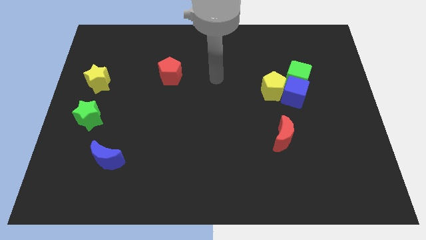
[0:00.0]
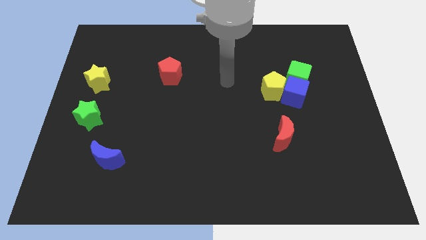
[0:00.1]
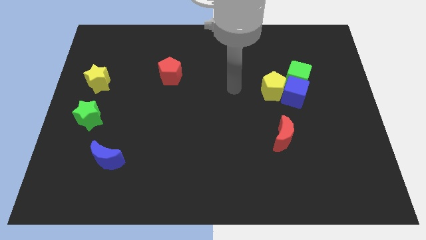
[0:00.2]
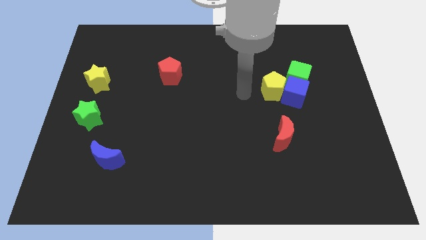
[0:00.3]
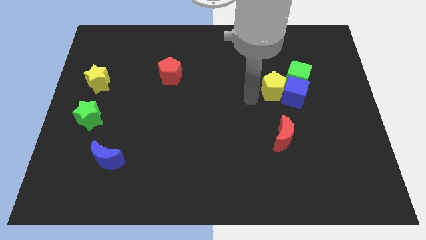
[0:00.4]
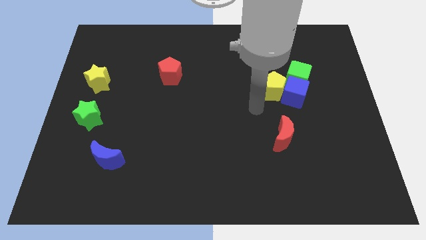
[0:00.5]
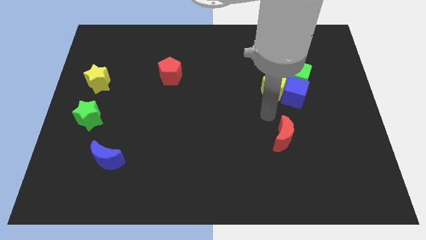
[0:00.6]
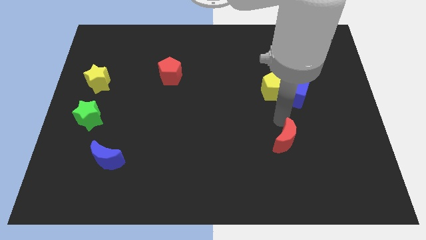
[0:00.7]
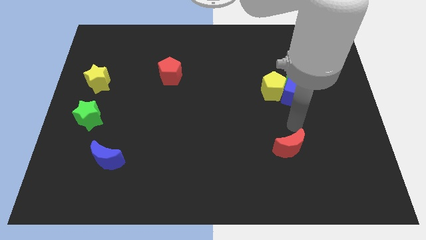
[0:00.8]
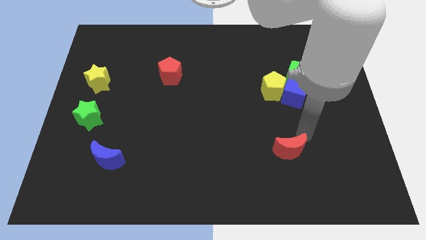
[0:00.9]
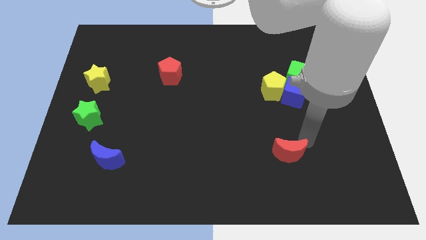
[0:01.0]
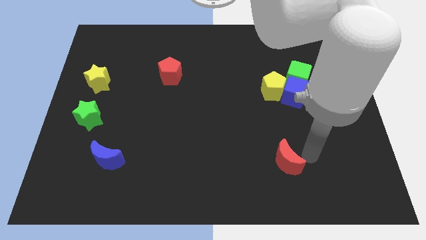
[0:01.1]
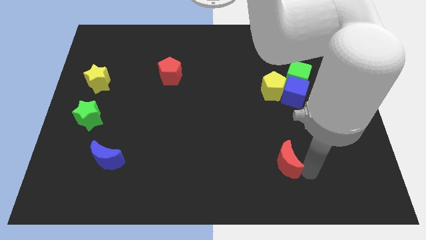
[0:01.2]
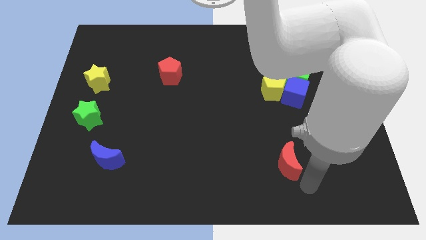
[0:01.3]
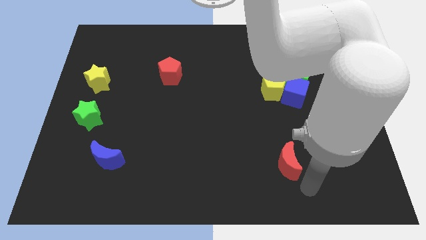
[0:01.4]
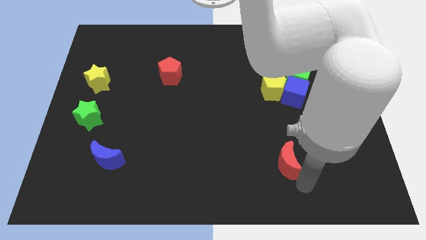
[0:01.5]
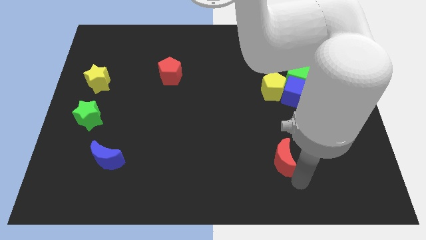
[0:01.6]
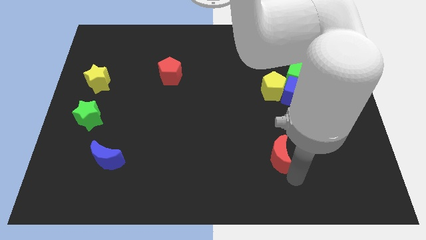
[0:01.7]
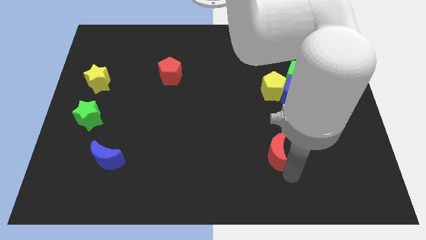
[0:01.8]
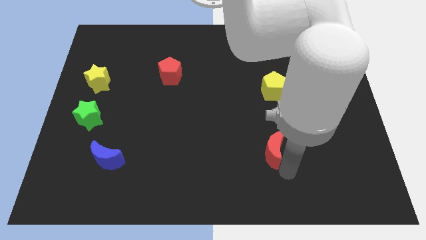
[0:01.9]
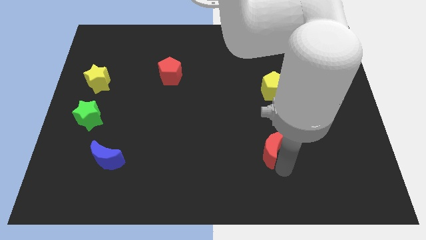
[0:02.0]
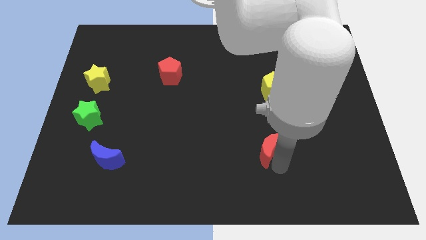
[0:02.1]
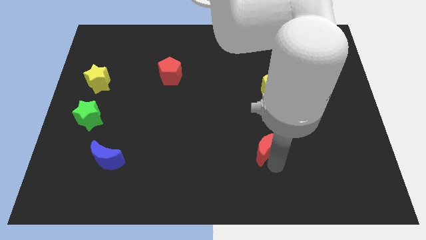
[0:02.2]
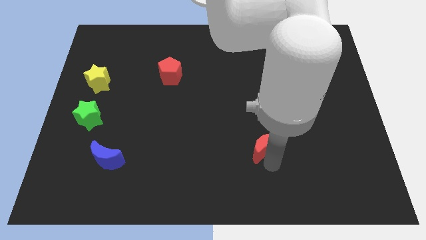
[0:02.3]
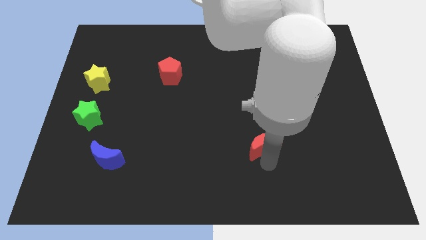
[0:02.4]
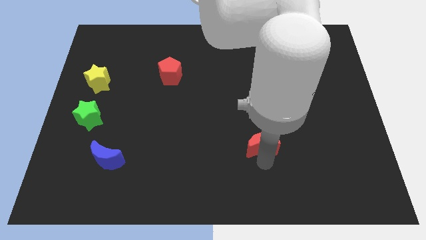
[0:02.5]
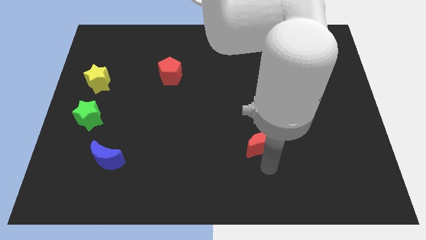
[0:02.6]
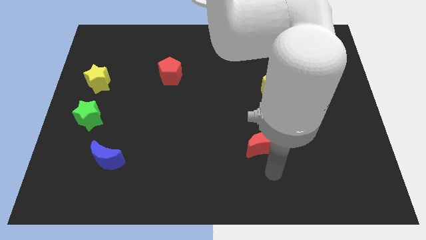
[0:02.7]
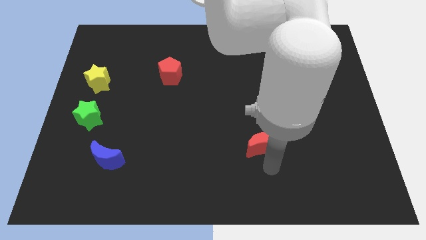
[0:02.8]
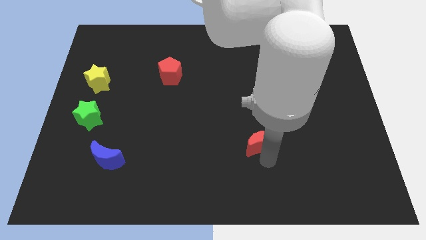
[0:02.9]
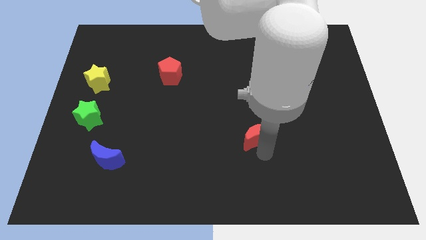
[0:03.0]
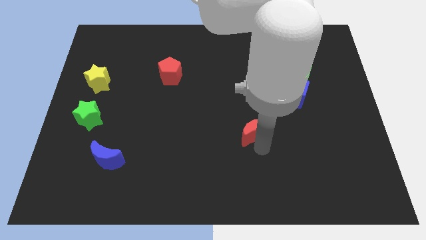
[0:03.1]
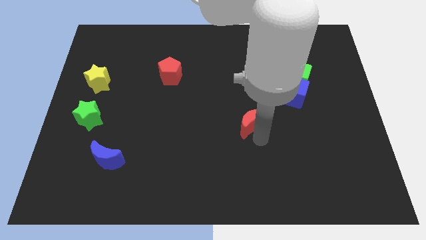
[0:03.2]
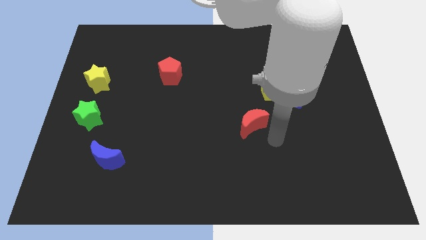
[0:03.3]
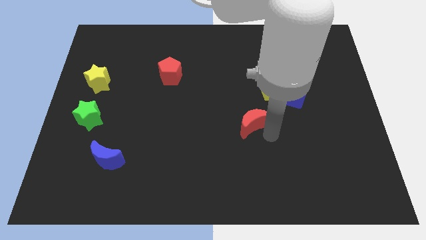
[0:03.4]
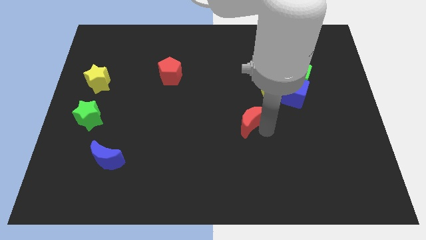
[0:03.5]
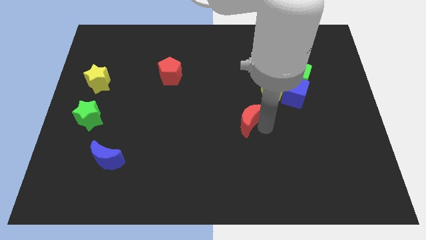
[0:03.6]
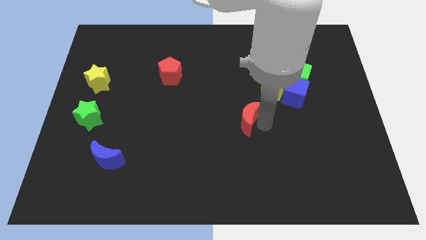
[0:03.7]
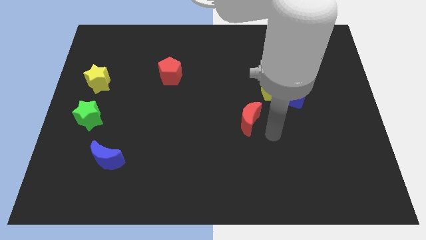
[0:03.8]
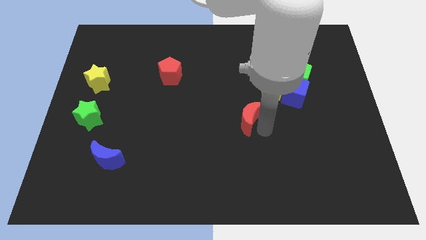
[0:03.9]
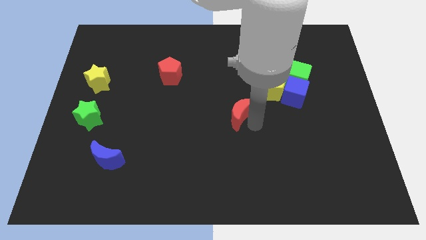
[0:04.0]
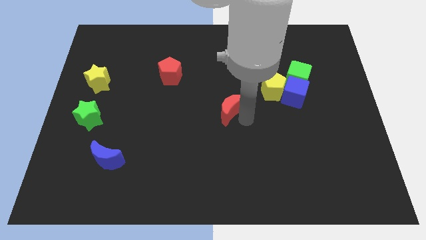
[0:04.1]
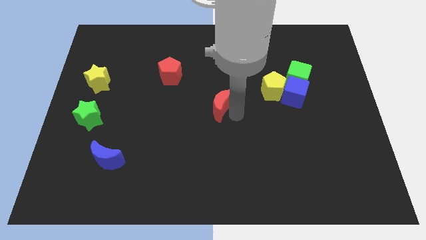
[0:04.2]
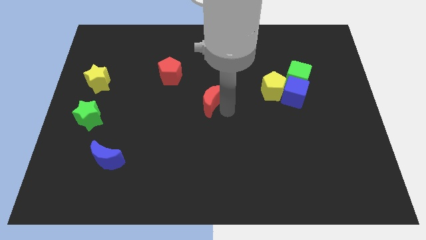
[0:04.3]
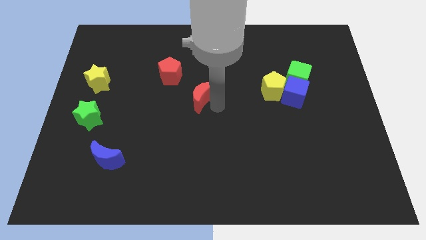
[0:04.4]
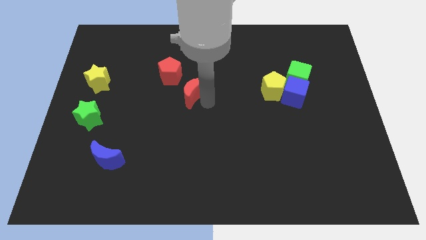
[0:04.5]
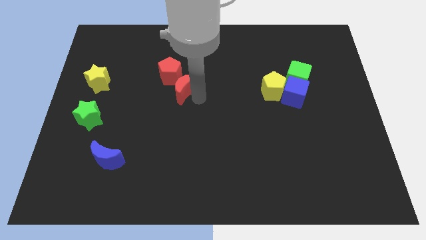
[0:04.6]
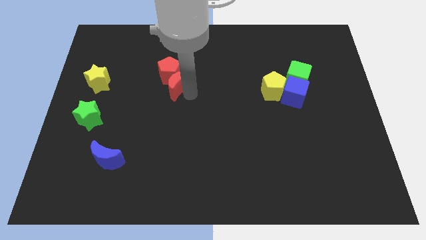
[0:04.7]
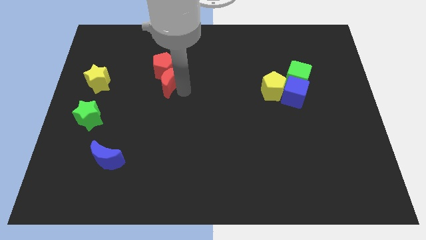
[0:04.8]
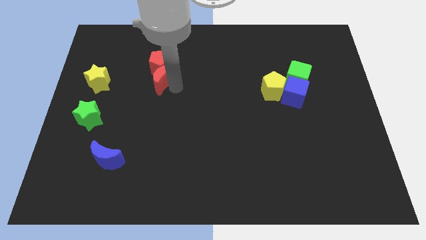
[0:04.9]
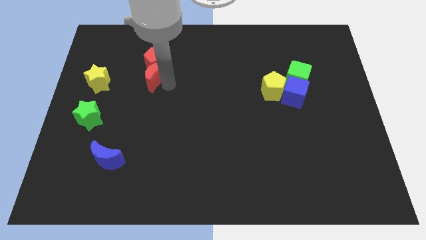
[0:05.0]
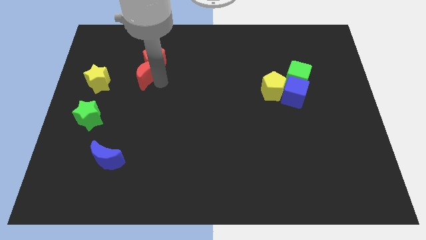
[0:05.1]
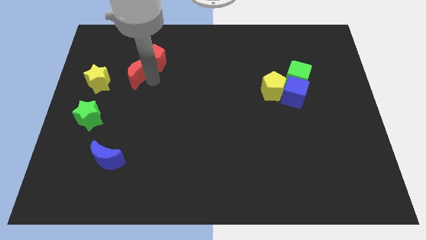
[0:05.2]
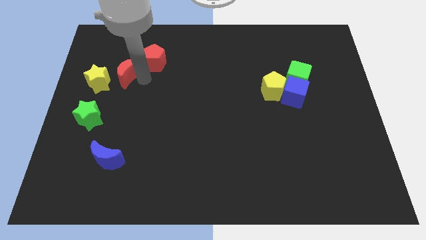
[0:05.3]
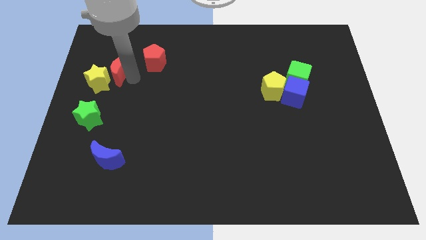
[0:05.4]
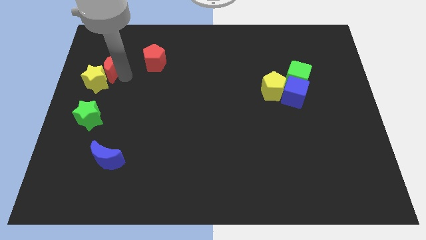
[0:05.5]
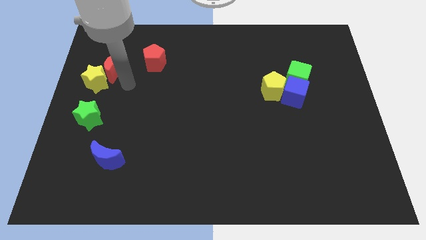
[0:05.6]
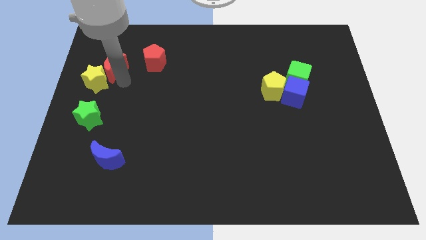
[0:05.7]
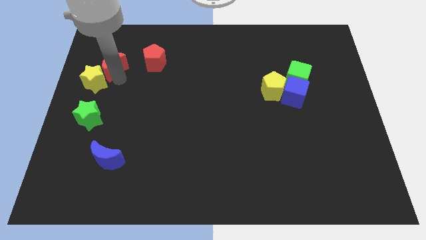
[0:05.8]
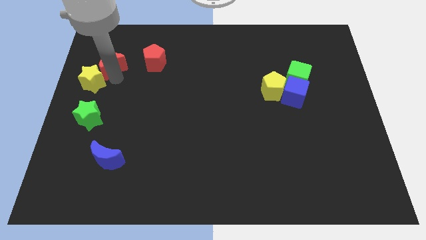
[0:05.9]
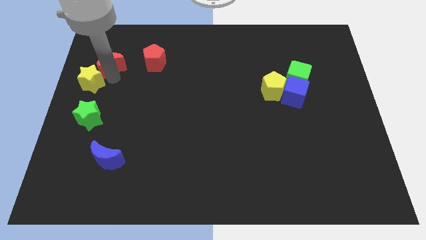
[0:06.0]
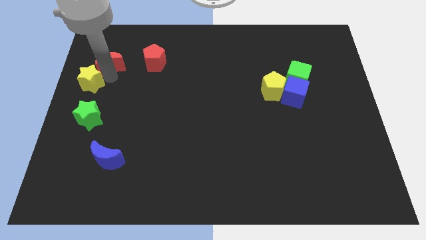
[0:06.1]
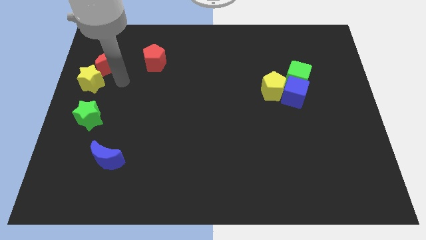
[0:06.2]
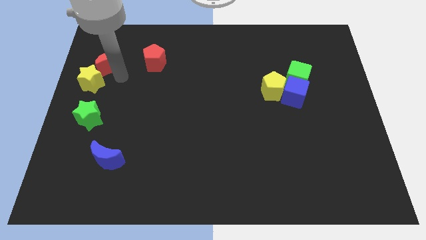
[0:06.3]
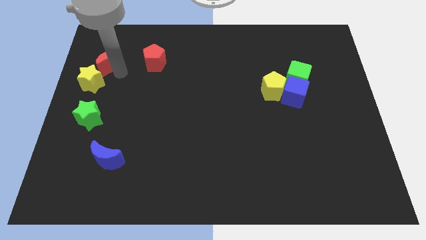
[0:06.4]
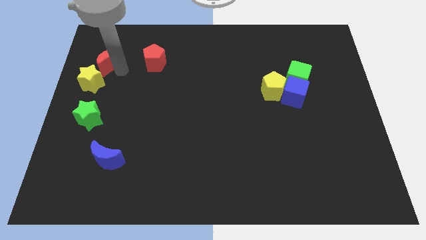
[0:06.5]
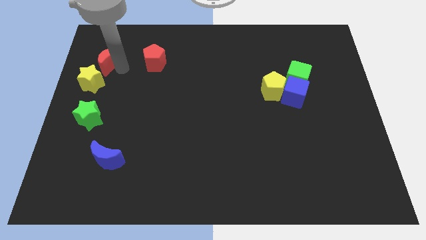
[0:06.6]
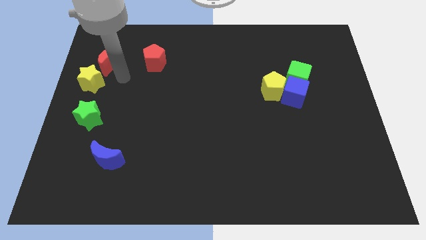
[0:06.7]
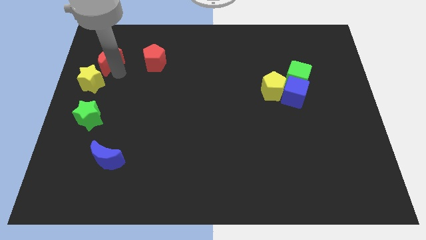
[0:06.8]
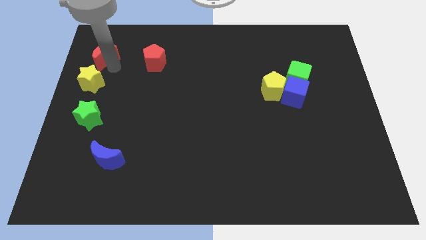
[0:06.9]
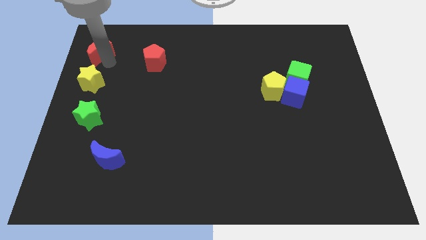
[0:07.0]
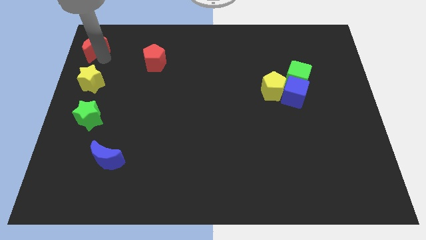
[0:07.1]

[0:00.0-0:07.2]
move the red moon to the top left corner
